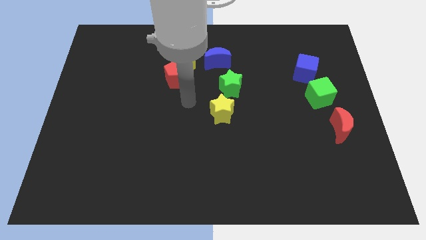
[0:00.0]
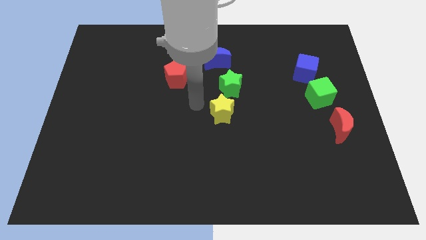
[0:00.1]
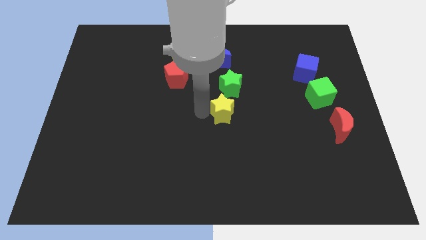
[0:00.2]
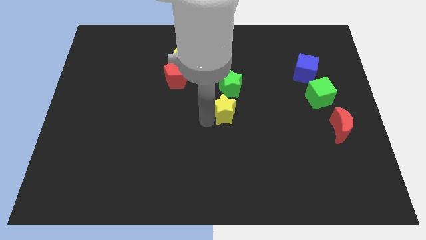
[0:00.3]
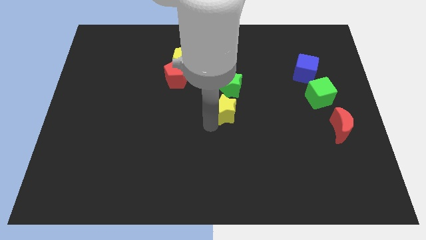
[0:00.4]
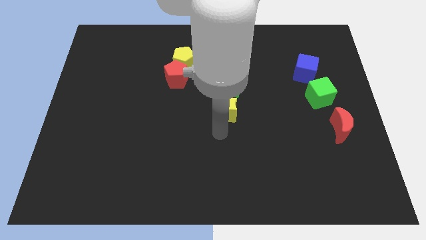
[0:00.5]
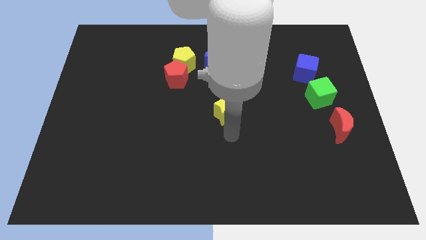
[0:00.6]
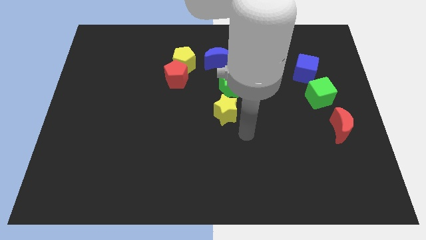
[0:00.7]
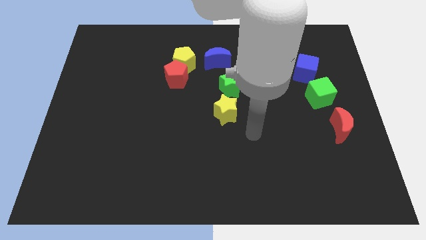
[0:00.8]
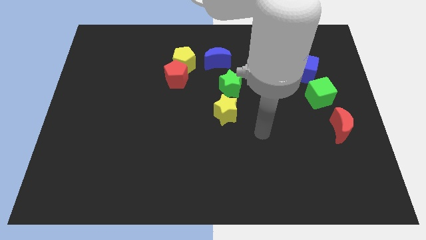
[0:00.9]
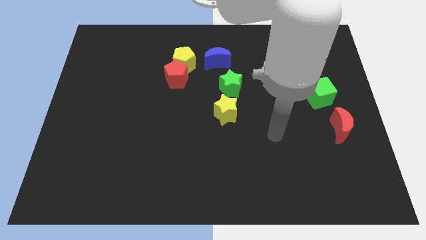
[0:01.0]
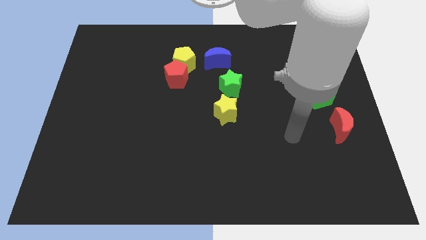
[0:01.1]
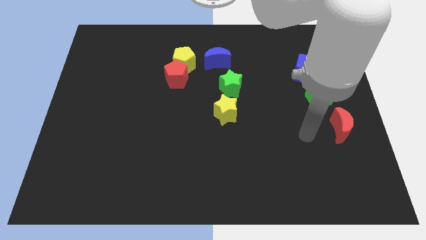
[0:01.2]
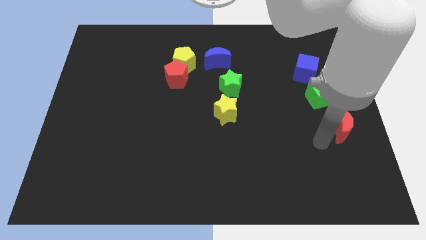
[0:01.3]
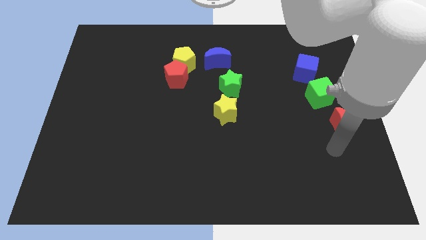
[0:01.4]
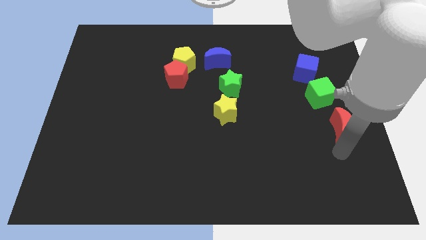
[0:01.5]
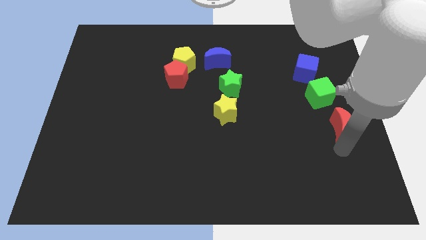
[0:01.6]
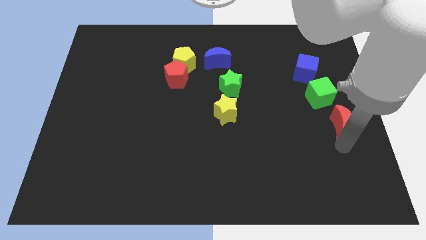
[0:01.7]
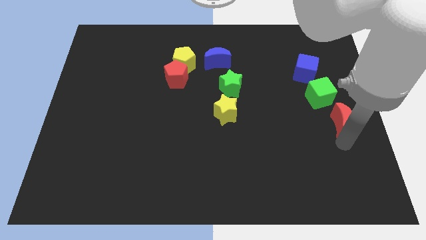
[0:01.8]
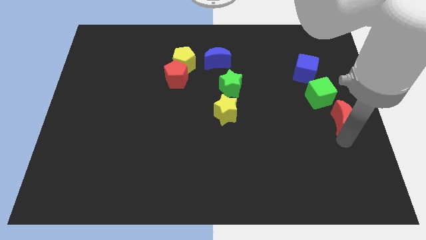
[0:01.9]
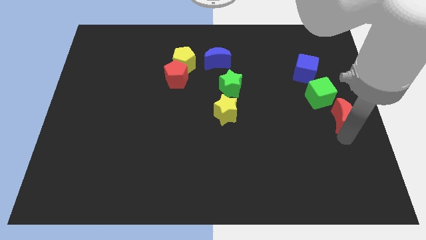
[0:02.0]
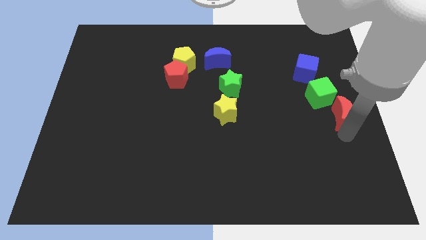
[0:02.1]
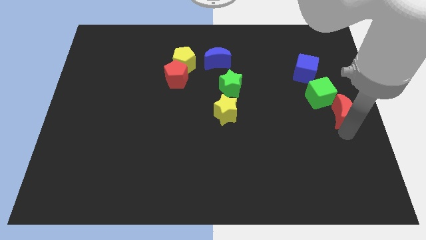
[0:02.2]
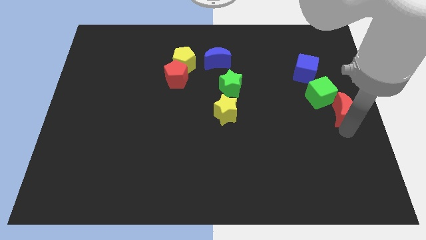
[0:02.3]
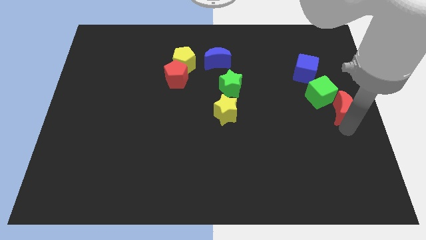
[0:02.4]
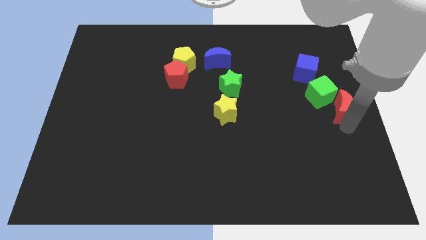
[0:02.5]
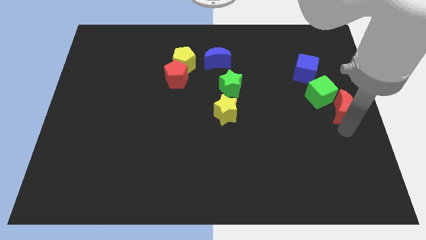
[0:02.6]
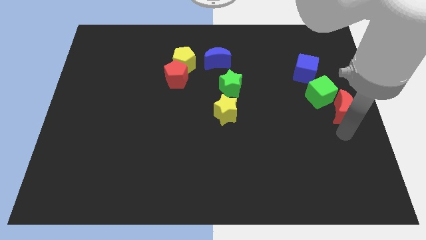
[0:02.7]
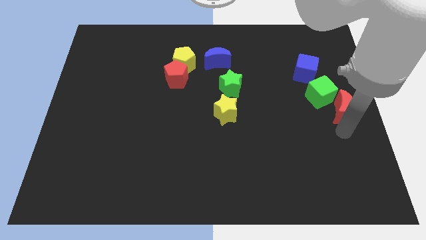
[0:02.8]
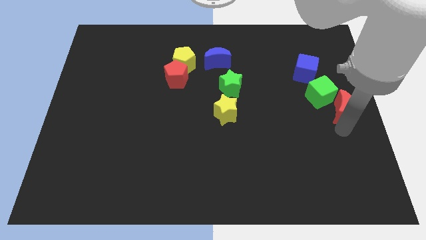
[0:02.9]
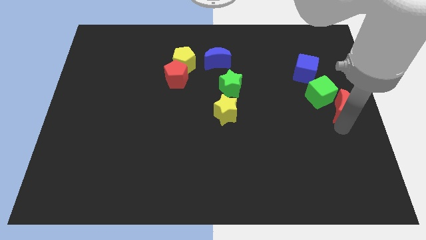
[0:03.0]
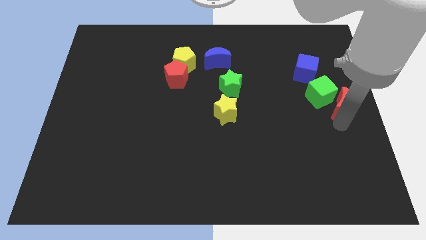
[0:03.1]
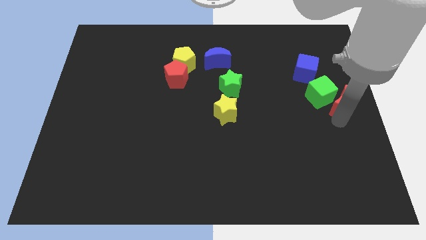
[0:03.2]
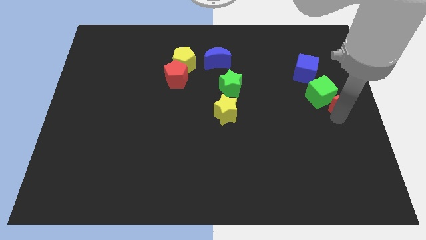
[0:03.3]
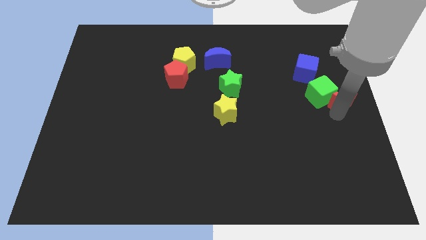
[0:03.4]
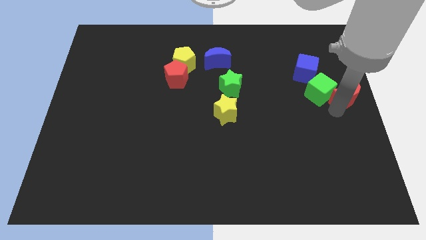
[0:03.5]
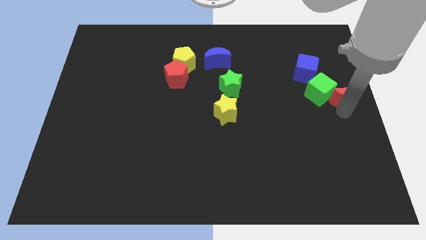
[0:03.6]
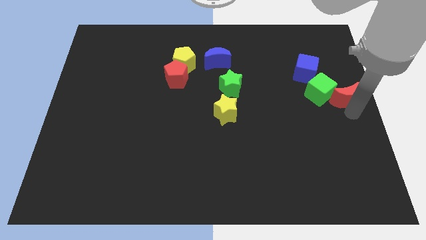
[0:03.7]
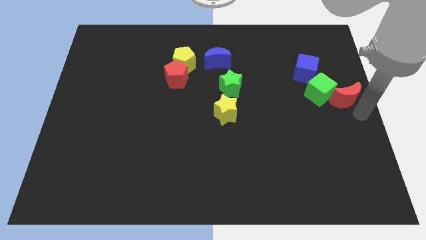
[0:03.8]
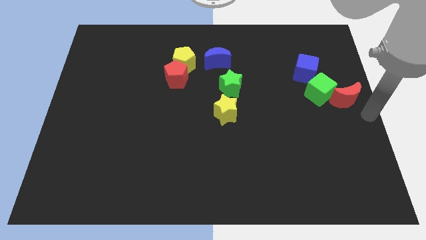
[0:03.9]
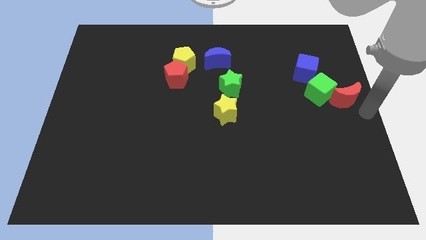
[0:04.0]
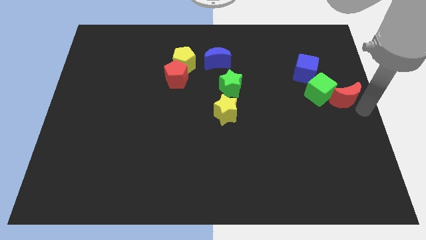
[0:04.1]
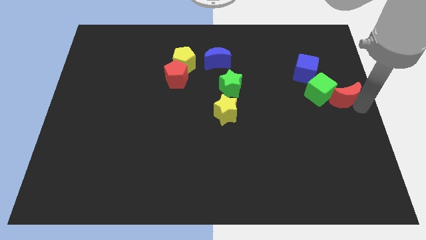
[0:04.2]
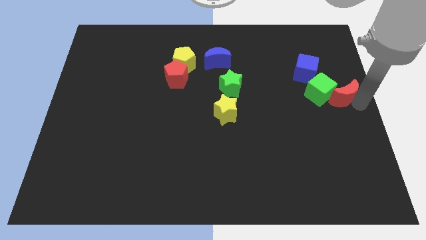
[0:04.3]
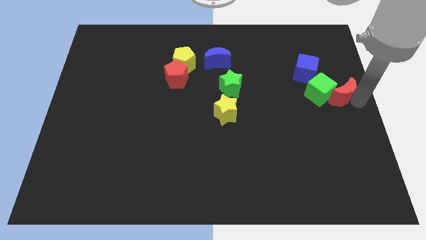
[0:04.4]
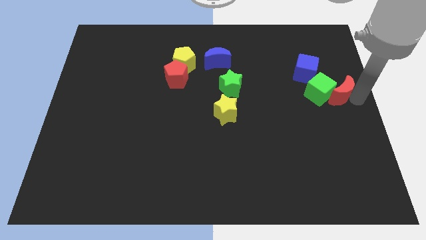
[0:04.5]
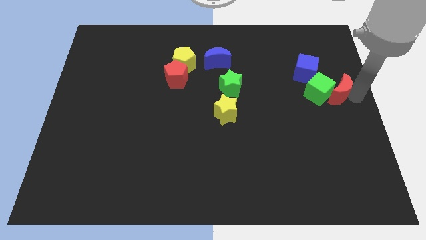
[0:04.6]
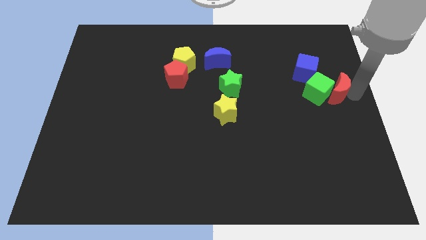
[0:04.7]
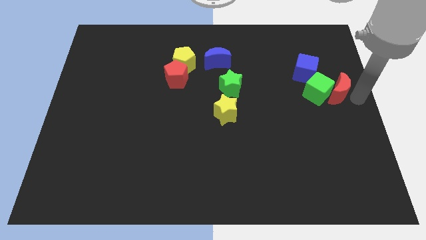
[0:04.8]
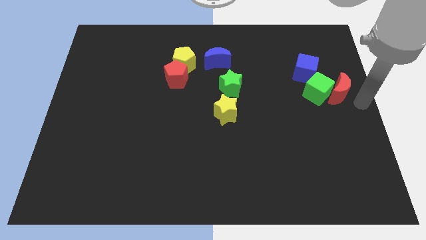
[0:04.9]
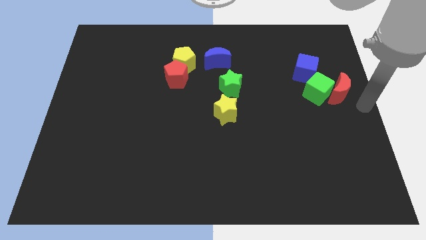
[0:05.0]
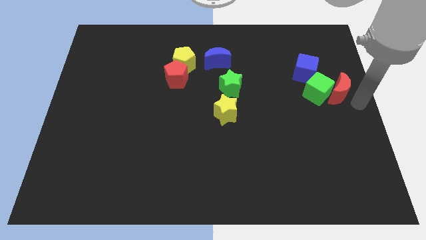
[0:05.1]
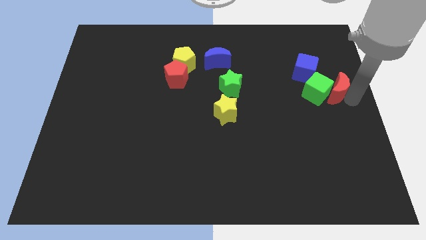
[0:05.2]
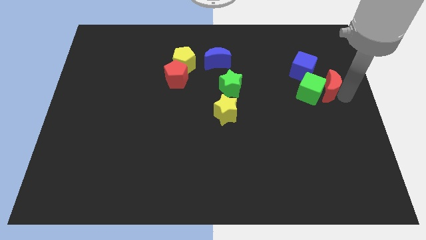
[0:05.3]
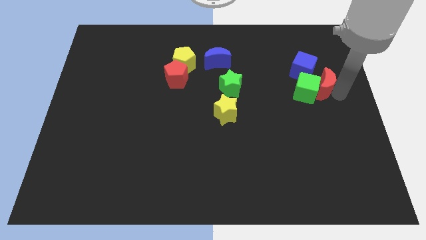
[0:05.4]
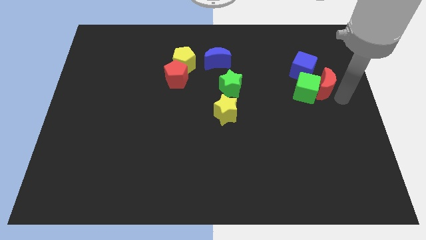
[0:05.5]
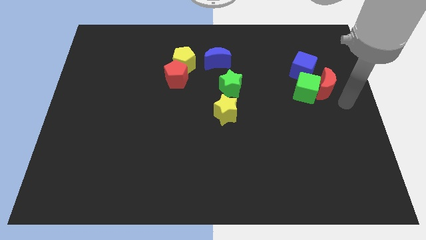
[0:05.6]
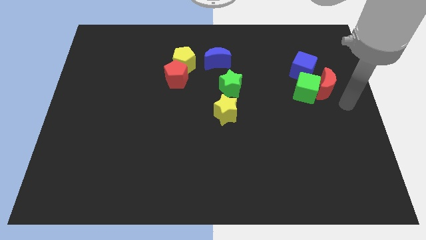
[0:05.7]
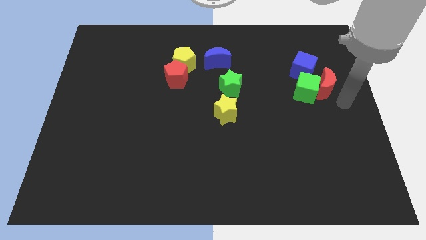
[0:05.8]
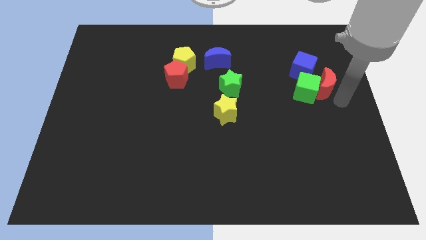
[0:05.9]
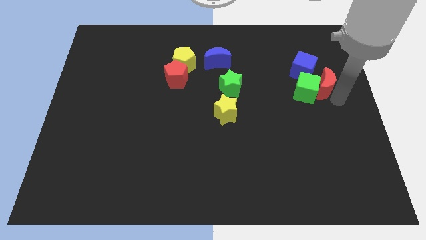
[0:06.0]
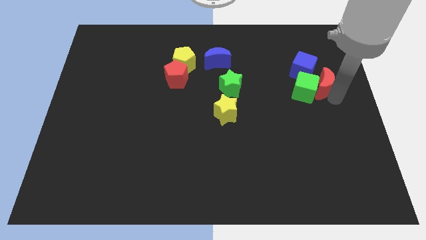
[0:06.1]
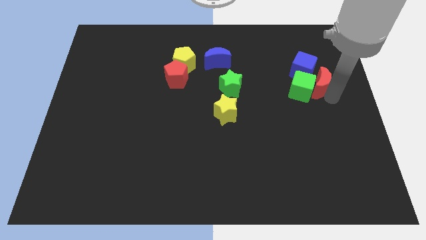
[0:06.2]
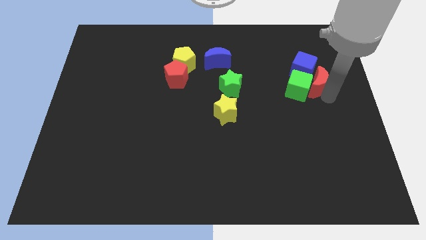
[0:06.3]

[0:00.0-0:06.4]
slide the red moon next to the blue cube

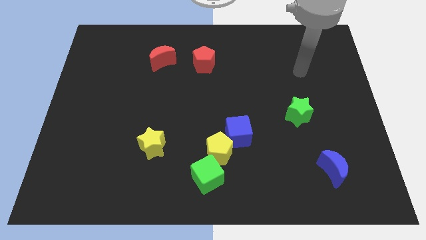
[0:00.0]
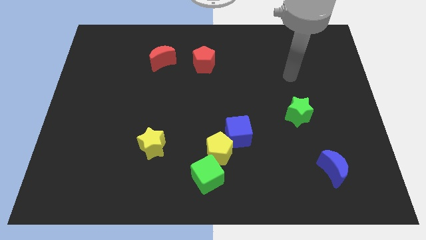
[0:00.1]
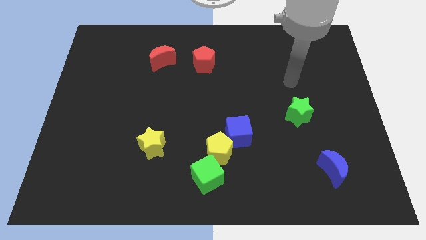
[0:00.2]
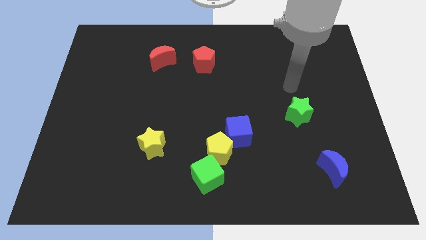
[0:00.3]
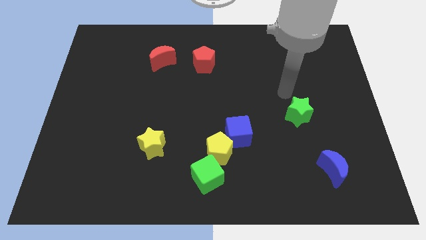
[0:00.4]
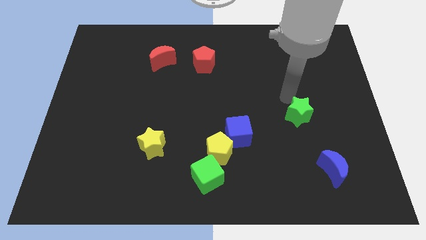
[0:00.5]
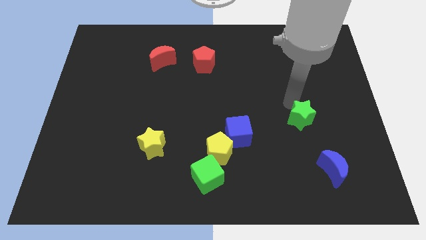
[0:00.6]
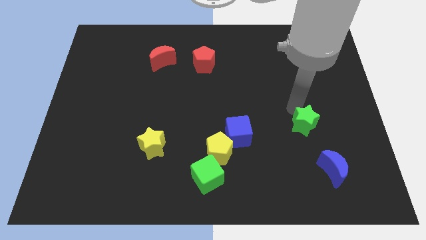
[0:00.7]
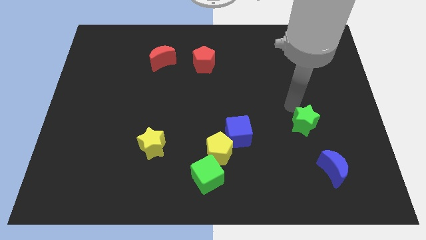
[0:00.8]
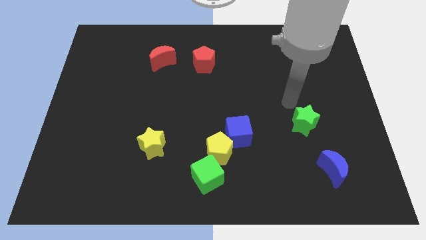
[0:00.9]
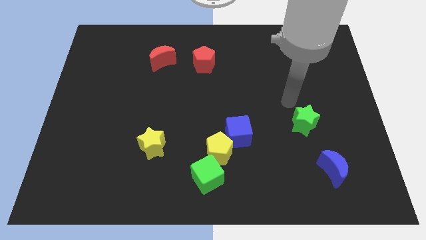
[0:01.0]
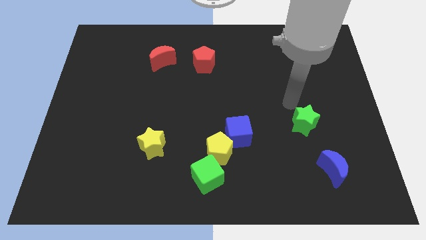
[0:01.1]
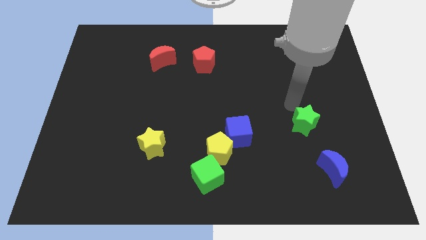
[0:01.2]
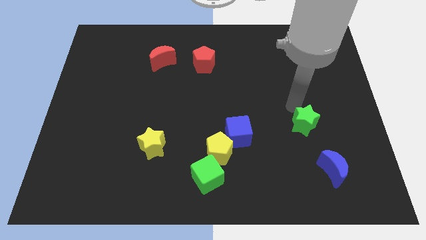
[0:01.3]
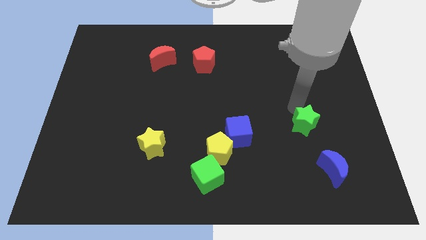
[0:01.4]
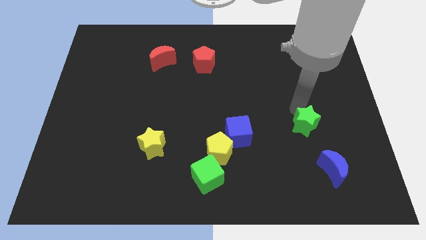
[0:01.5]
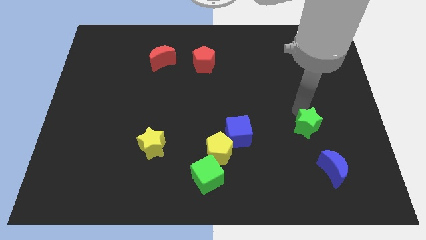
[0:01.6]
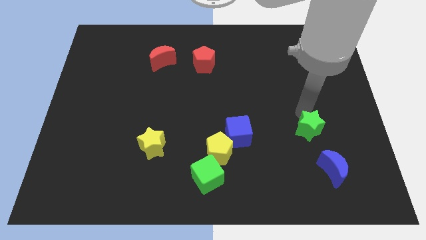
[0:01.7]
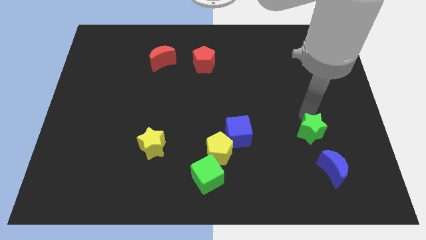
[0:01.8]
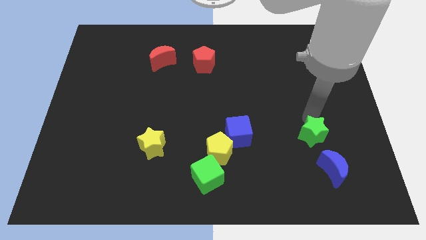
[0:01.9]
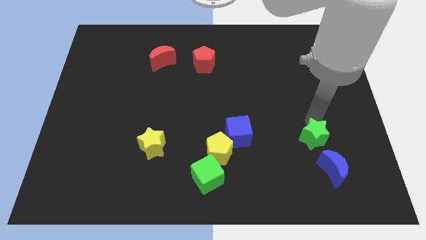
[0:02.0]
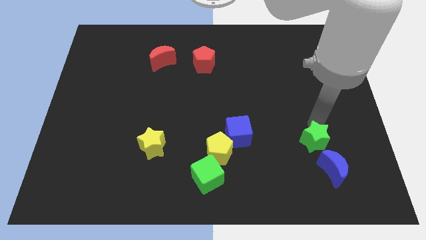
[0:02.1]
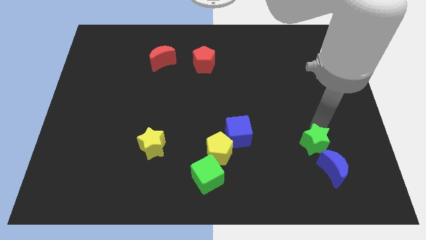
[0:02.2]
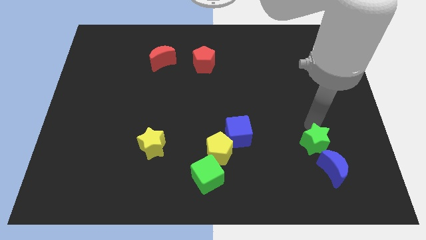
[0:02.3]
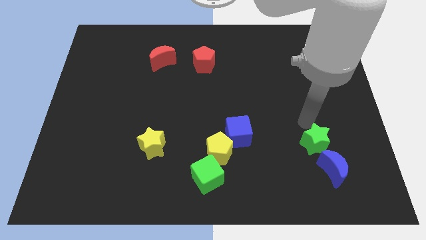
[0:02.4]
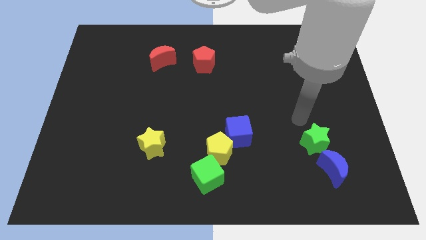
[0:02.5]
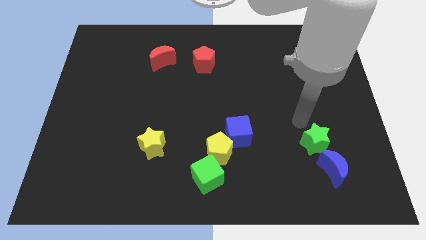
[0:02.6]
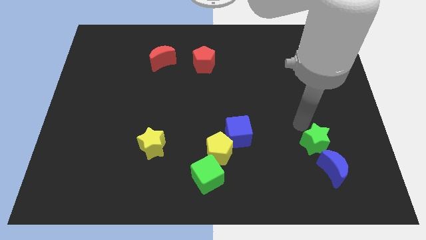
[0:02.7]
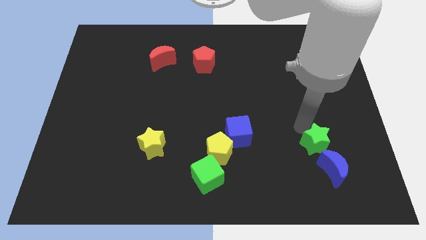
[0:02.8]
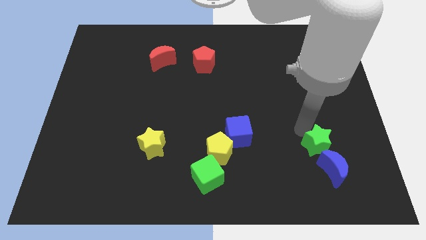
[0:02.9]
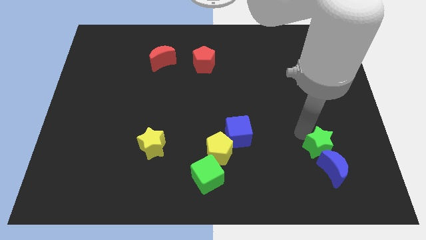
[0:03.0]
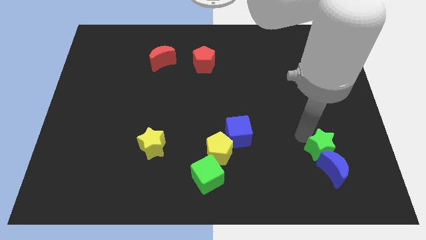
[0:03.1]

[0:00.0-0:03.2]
slide the green star to the blue moon
